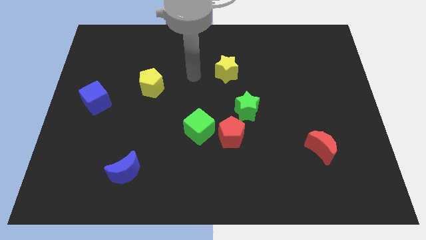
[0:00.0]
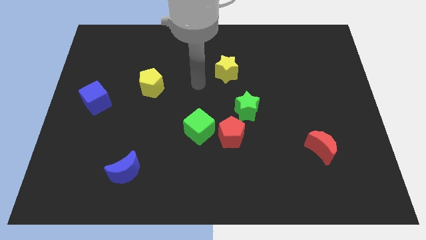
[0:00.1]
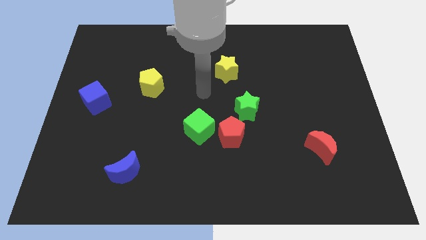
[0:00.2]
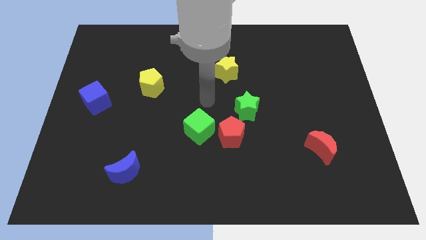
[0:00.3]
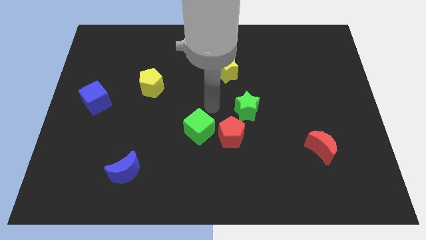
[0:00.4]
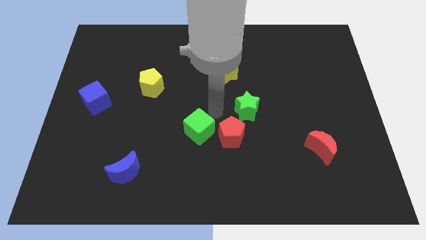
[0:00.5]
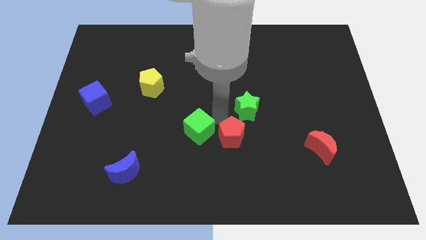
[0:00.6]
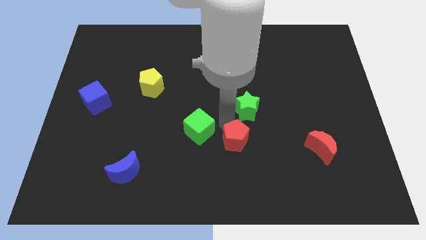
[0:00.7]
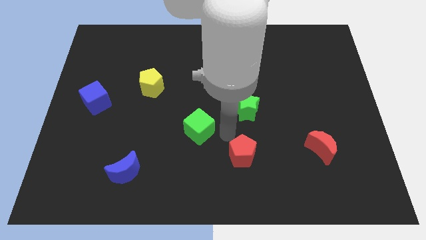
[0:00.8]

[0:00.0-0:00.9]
move the green cube away from the red pentagon

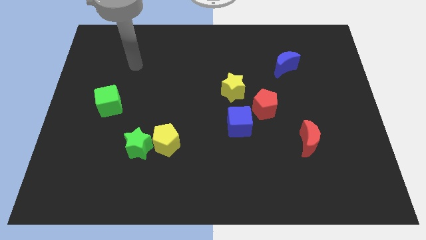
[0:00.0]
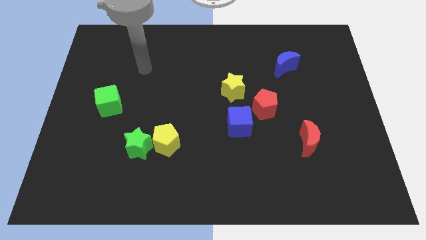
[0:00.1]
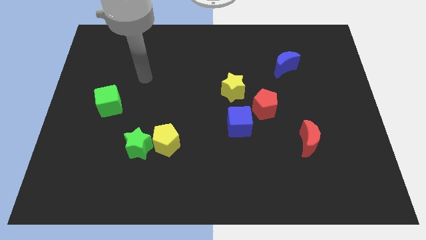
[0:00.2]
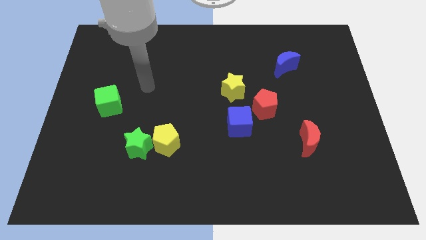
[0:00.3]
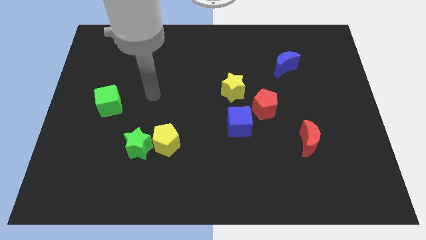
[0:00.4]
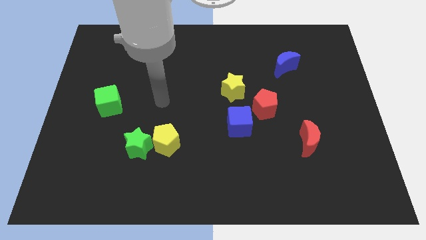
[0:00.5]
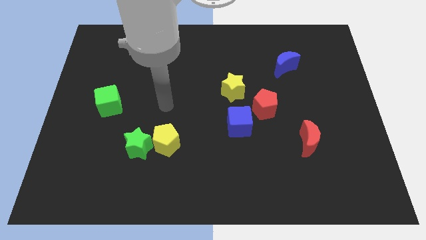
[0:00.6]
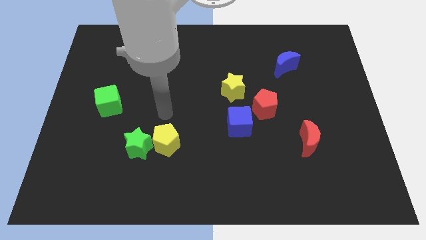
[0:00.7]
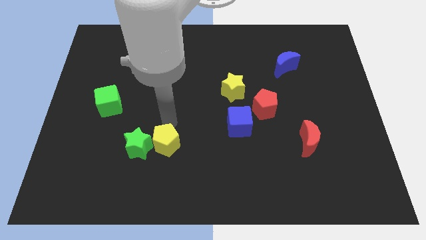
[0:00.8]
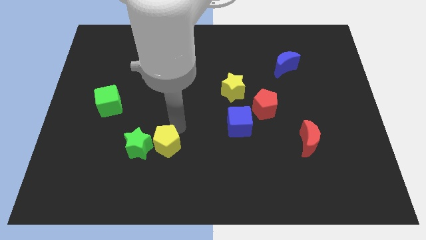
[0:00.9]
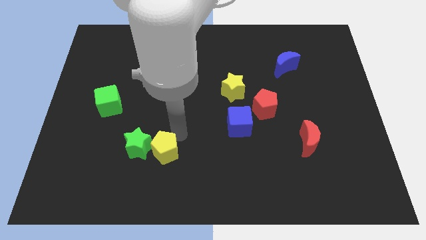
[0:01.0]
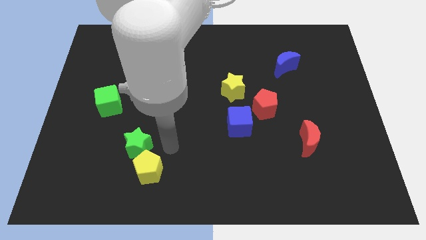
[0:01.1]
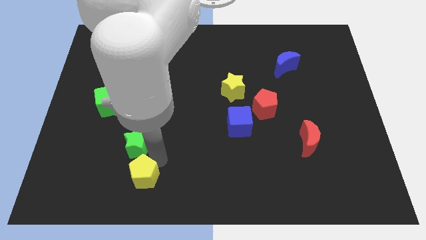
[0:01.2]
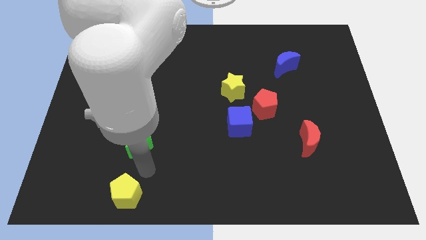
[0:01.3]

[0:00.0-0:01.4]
move the green star away from the yellow pentagon

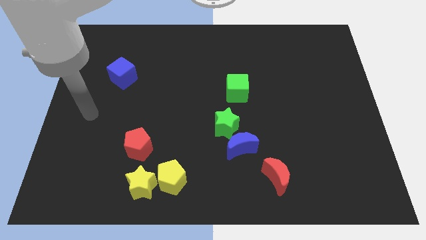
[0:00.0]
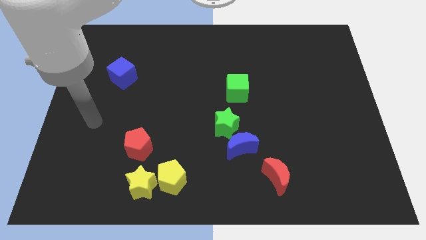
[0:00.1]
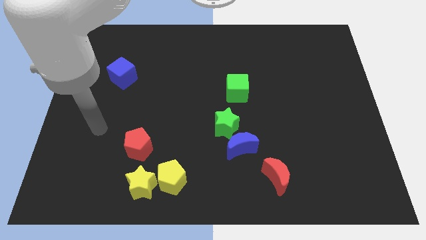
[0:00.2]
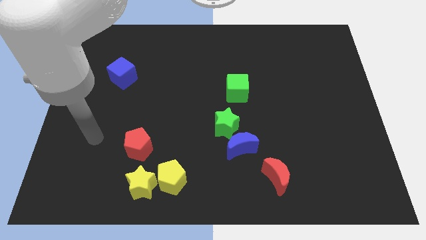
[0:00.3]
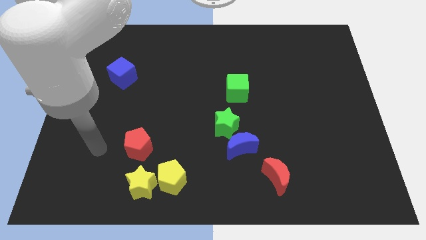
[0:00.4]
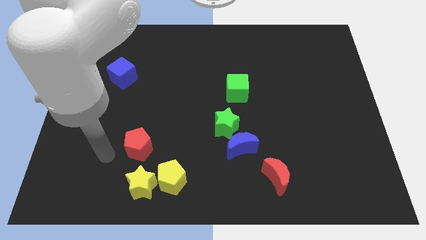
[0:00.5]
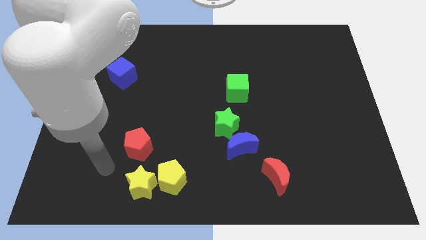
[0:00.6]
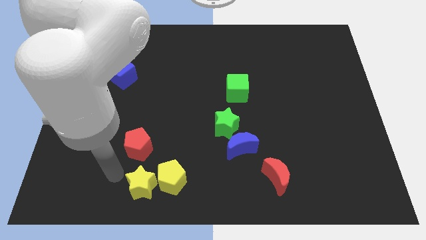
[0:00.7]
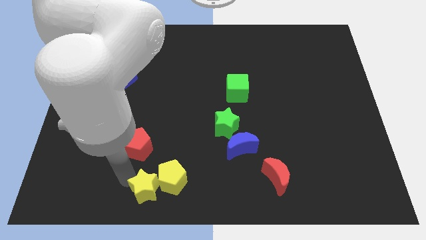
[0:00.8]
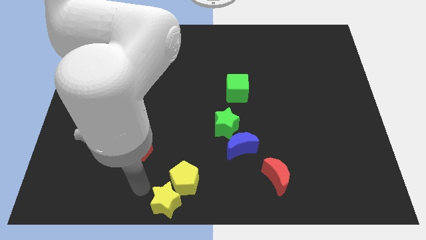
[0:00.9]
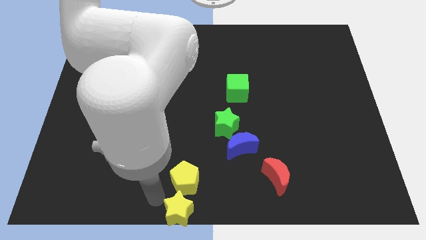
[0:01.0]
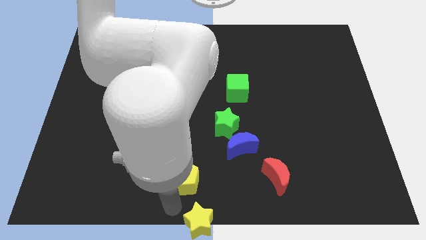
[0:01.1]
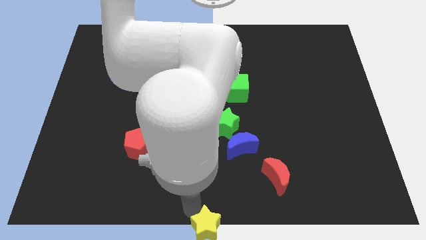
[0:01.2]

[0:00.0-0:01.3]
separate the yellow pentagon from the yellow star

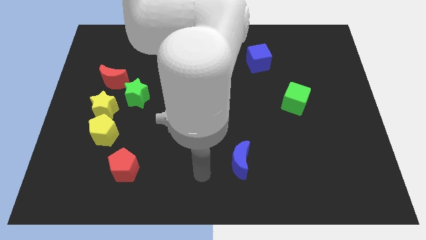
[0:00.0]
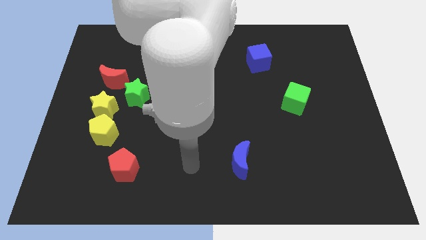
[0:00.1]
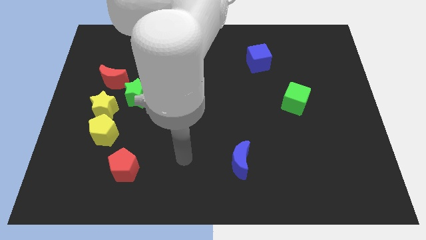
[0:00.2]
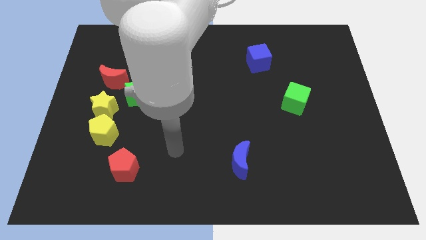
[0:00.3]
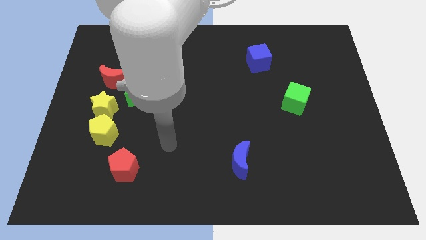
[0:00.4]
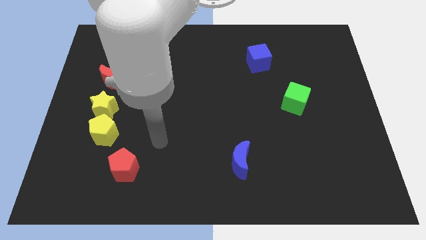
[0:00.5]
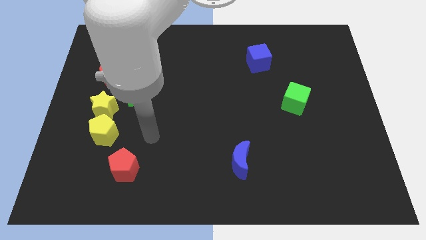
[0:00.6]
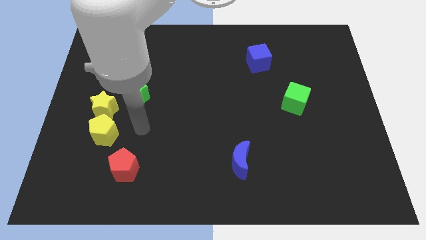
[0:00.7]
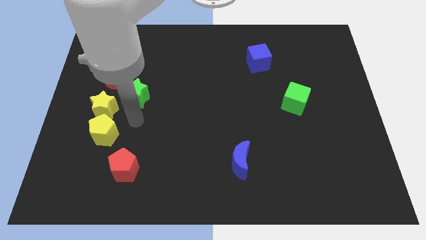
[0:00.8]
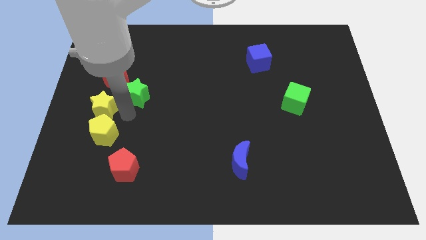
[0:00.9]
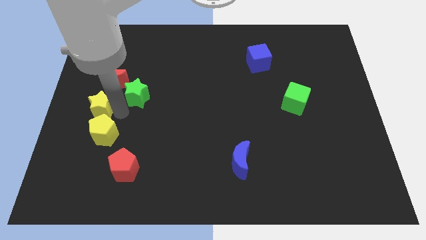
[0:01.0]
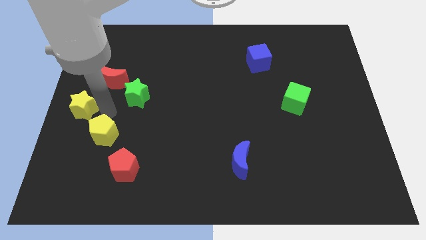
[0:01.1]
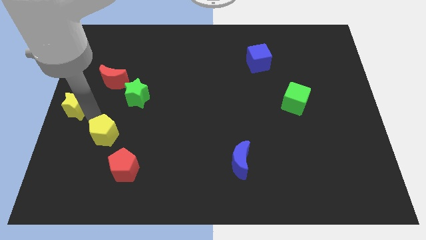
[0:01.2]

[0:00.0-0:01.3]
pull the yellow pentagon apart from the yellow star

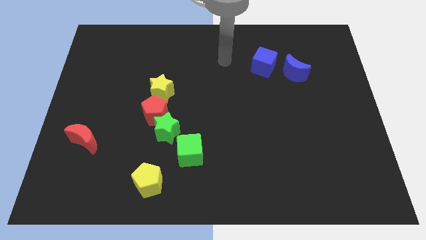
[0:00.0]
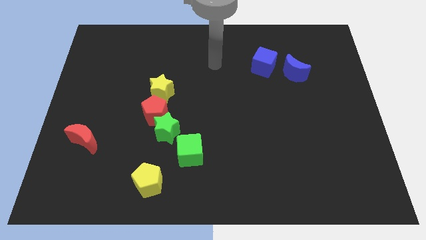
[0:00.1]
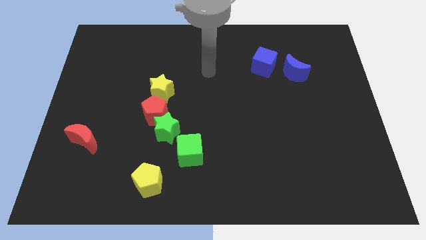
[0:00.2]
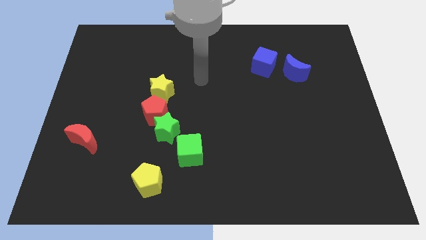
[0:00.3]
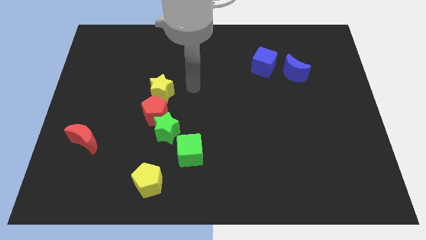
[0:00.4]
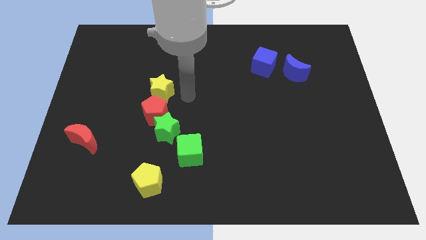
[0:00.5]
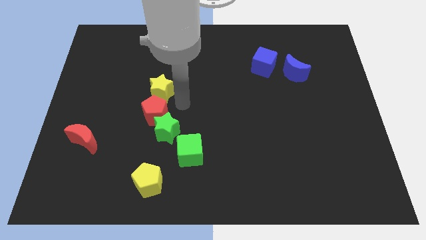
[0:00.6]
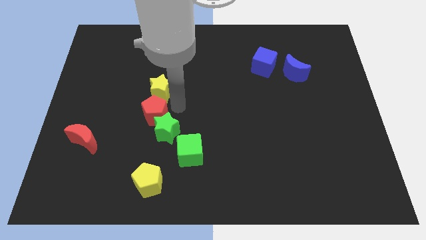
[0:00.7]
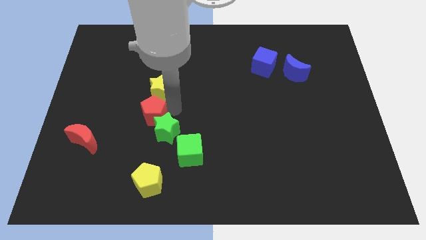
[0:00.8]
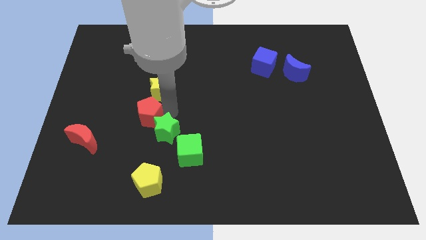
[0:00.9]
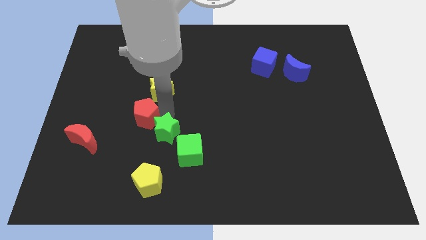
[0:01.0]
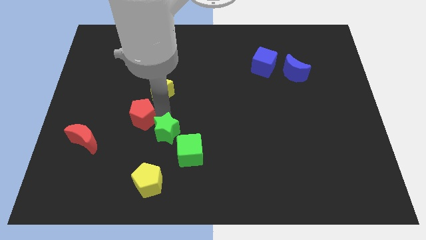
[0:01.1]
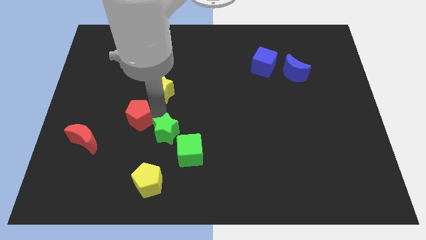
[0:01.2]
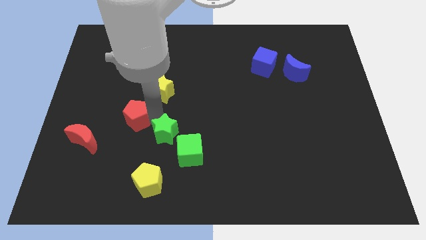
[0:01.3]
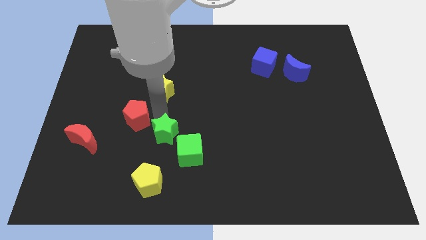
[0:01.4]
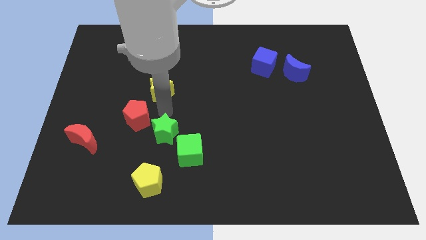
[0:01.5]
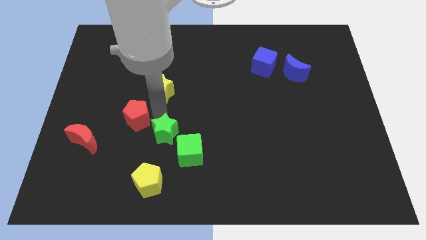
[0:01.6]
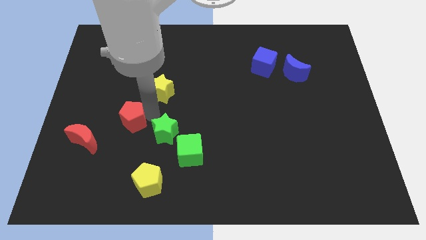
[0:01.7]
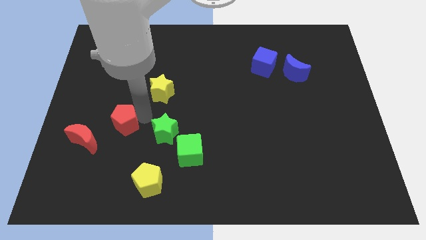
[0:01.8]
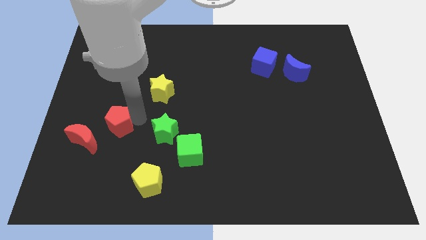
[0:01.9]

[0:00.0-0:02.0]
move the red pentagon away from the green star and yellow star

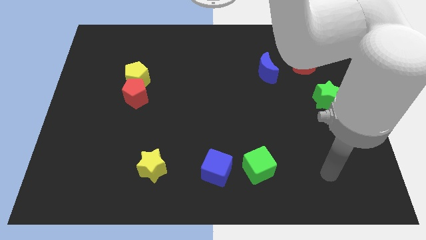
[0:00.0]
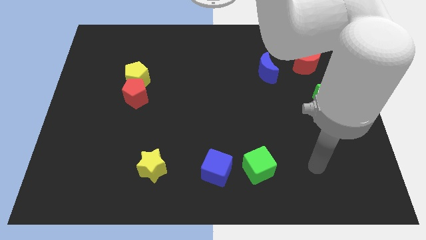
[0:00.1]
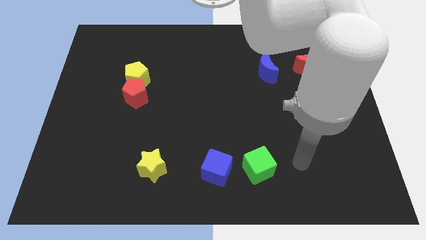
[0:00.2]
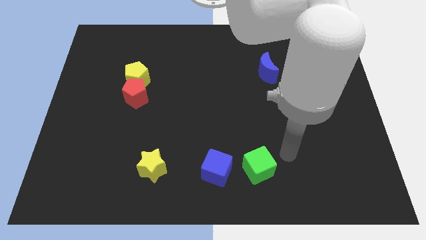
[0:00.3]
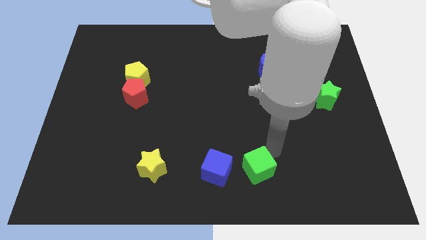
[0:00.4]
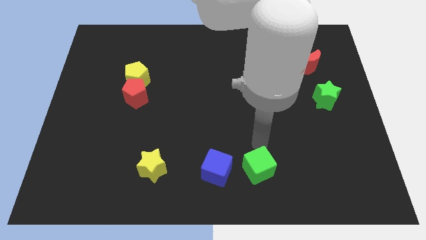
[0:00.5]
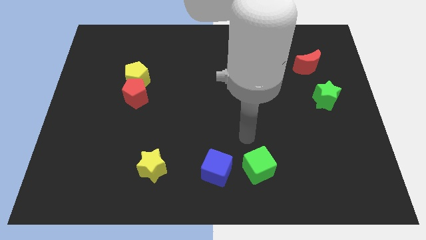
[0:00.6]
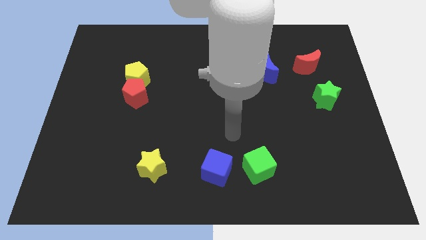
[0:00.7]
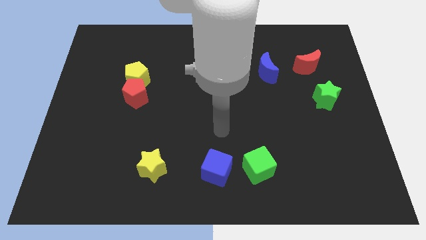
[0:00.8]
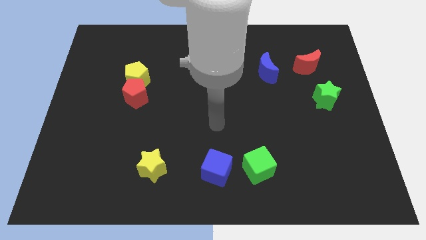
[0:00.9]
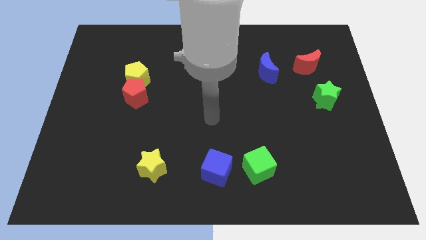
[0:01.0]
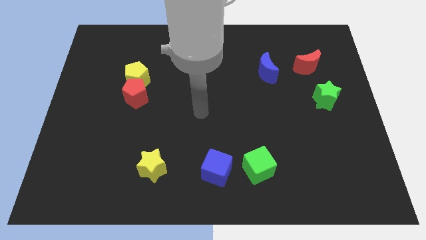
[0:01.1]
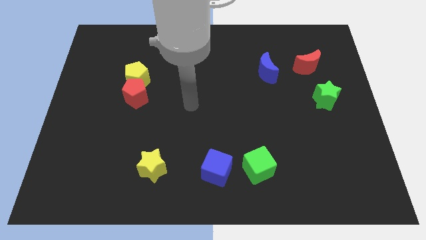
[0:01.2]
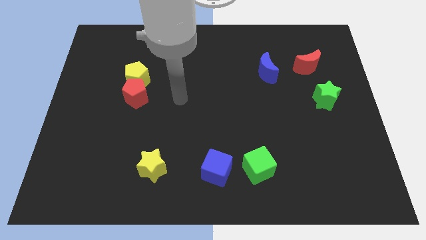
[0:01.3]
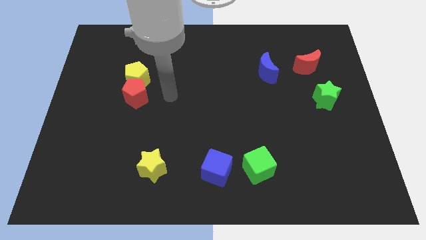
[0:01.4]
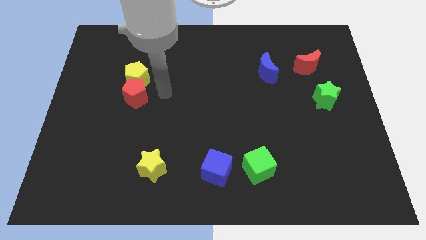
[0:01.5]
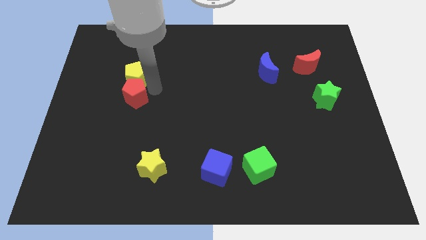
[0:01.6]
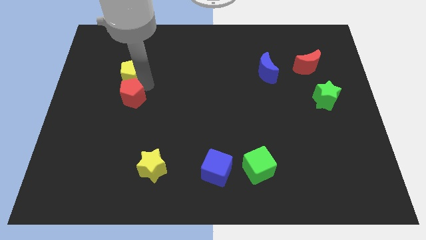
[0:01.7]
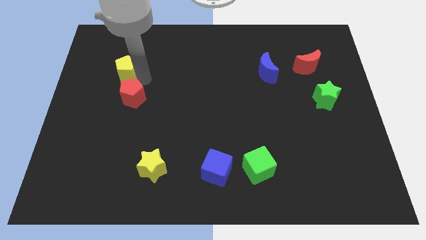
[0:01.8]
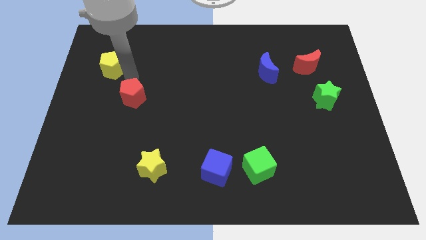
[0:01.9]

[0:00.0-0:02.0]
separate the red pentagon from the yellow pentagon

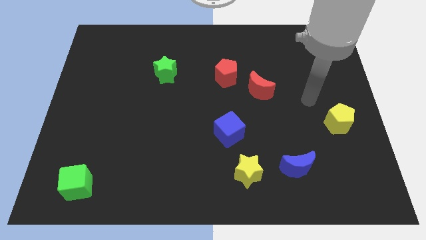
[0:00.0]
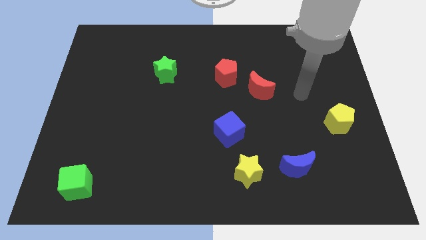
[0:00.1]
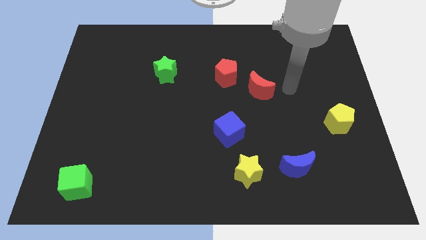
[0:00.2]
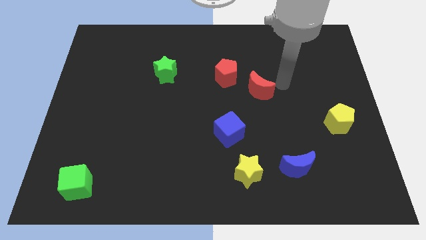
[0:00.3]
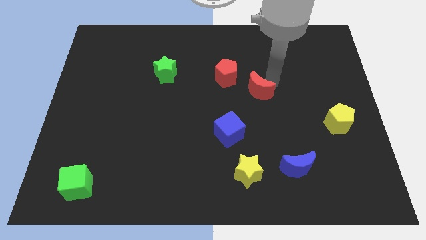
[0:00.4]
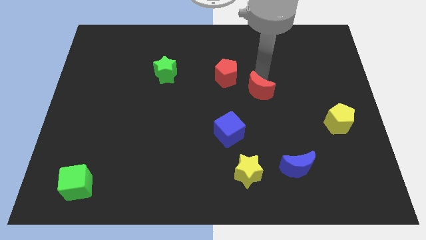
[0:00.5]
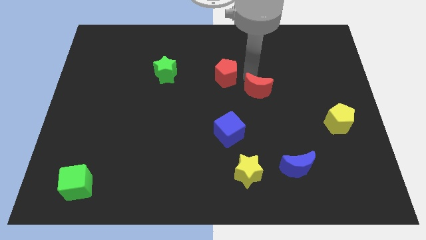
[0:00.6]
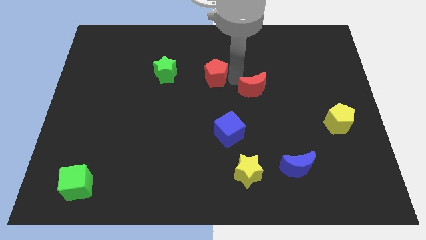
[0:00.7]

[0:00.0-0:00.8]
pull the red moon apart from the red pentagon
